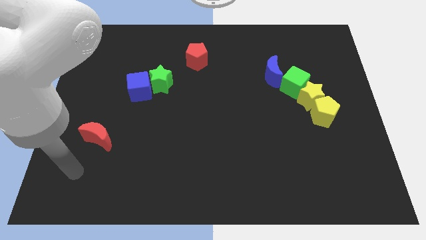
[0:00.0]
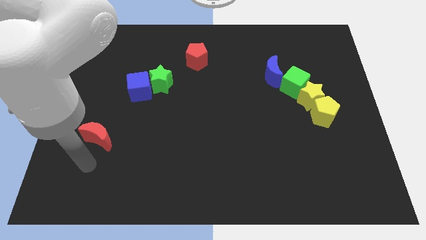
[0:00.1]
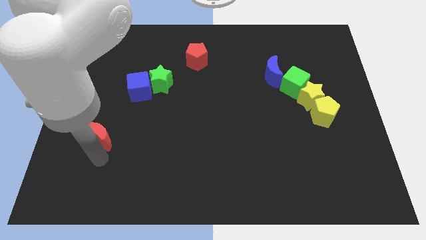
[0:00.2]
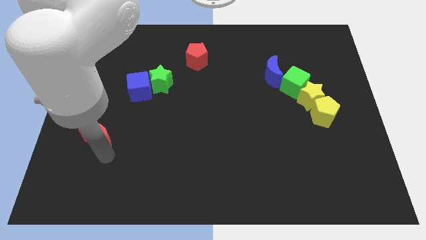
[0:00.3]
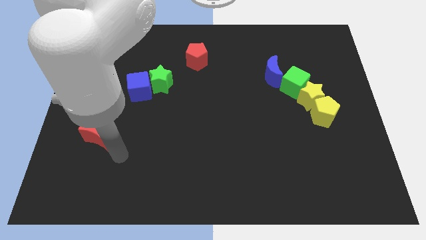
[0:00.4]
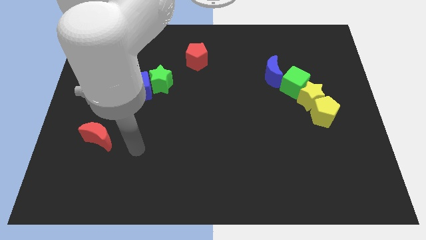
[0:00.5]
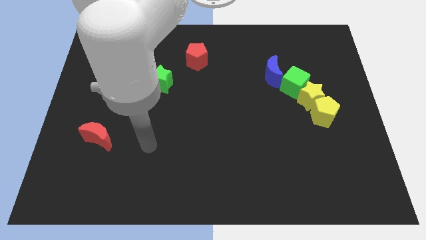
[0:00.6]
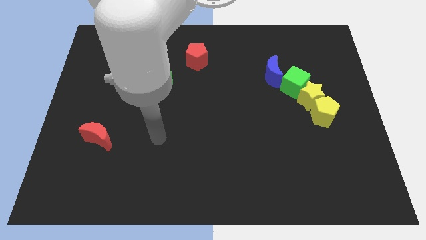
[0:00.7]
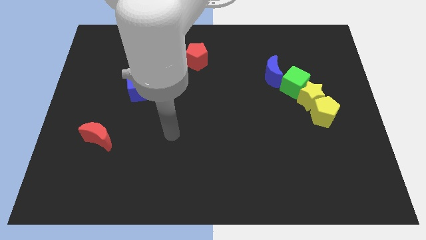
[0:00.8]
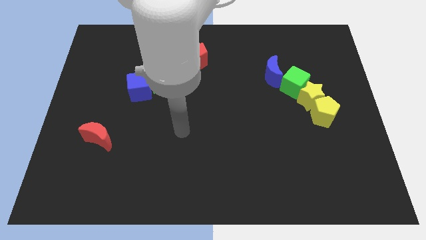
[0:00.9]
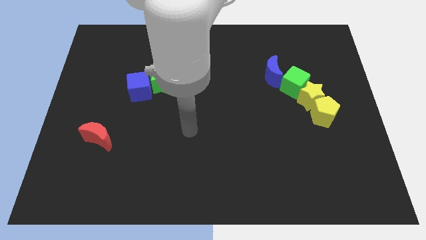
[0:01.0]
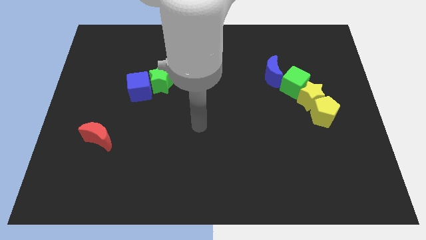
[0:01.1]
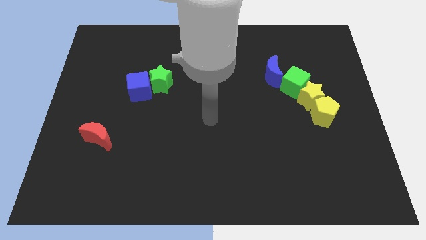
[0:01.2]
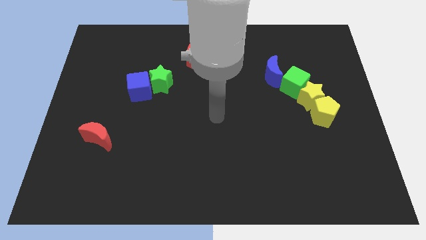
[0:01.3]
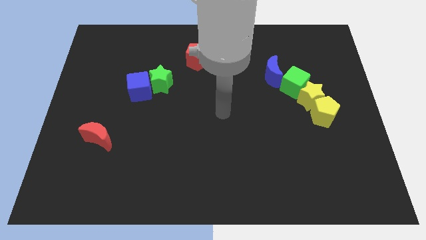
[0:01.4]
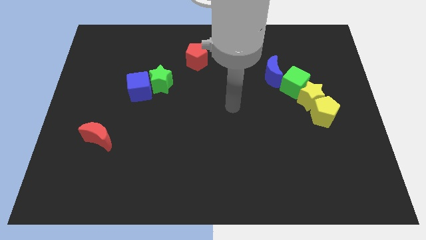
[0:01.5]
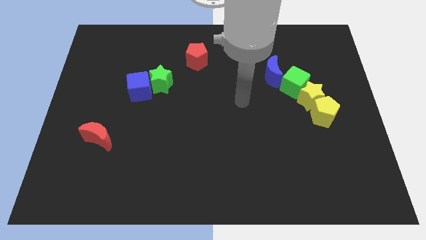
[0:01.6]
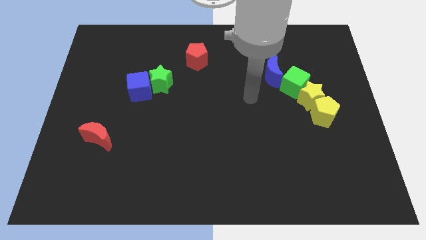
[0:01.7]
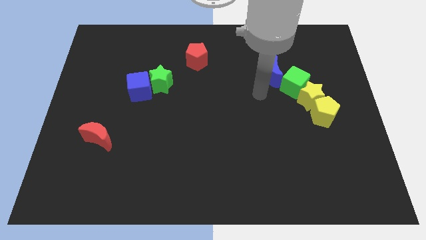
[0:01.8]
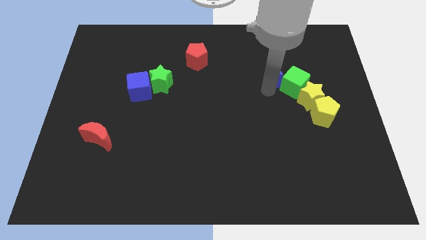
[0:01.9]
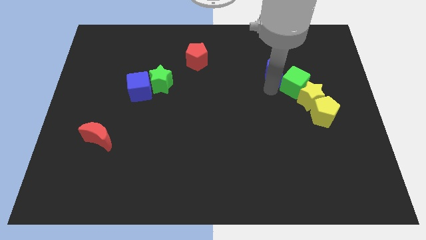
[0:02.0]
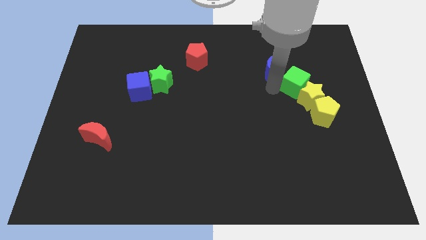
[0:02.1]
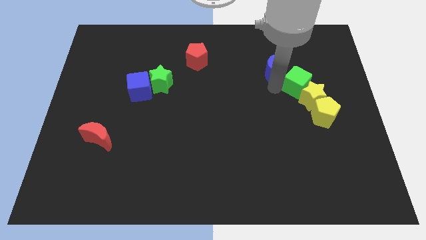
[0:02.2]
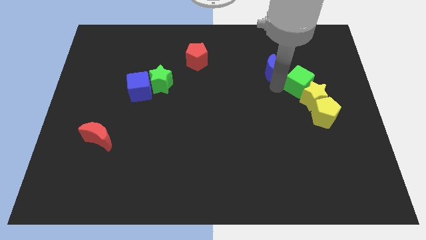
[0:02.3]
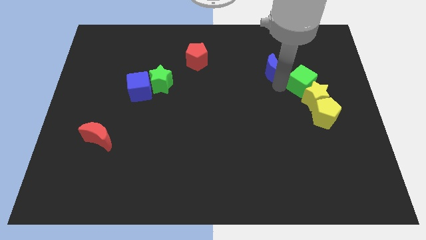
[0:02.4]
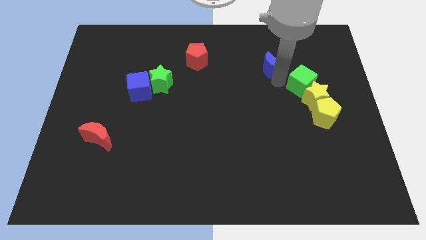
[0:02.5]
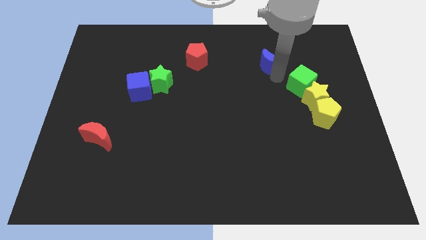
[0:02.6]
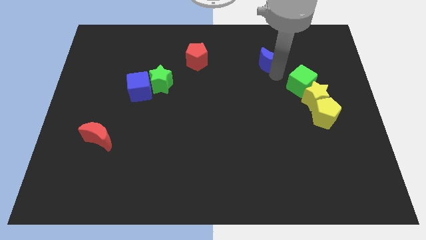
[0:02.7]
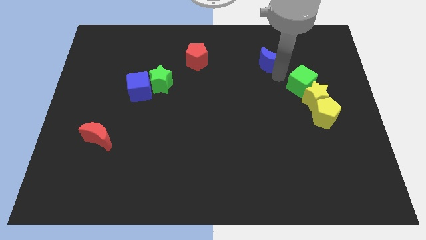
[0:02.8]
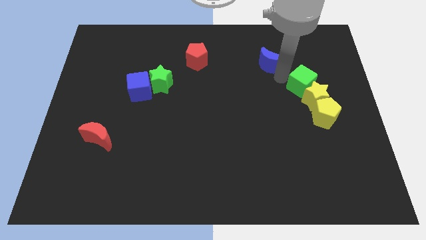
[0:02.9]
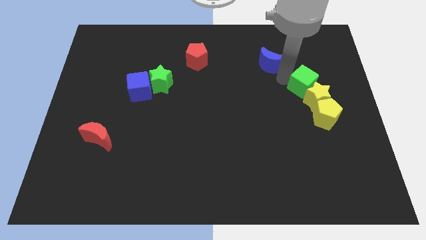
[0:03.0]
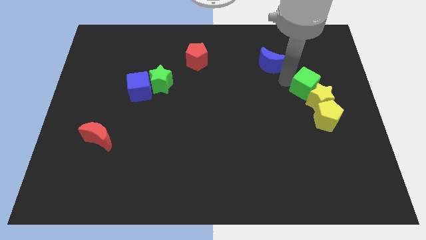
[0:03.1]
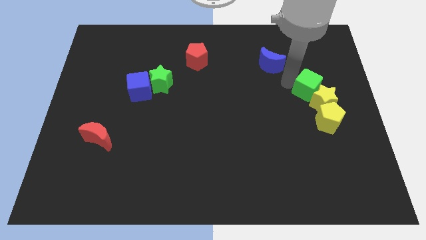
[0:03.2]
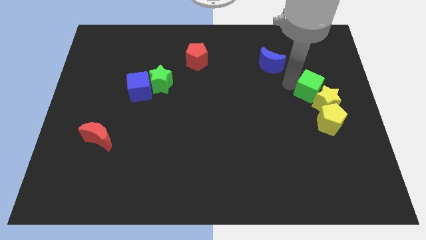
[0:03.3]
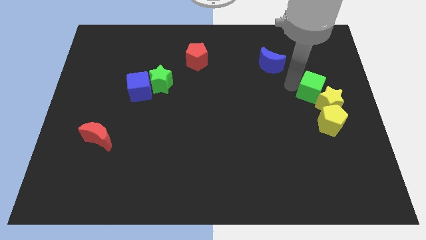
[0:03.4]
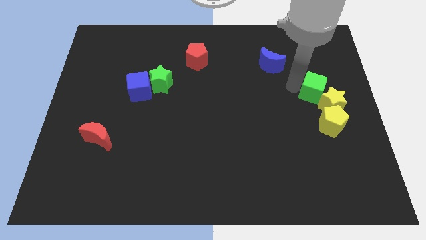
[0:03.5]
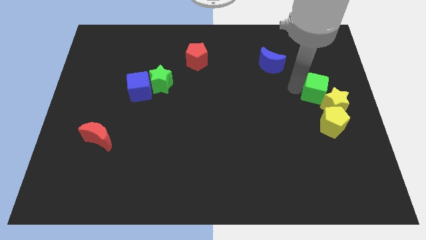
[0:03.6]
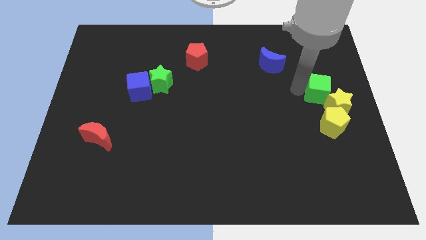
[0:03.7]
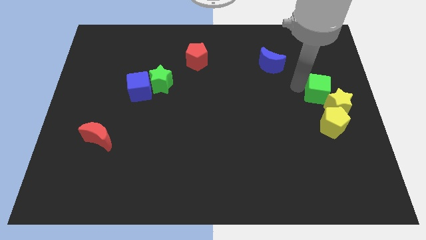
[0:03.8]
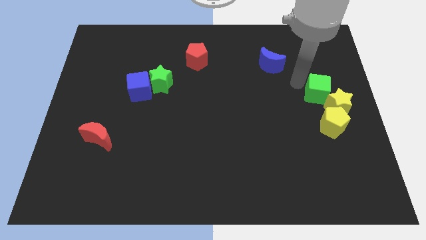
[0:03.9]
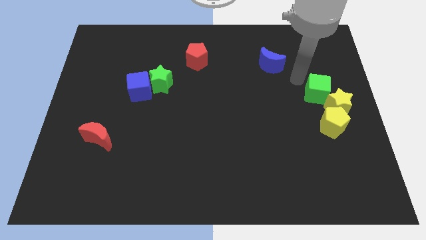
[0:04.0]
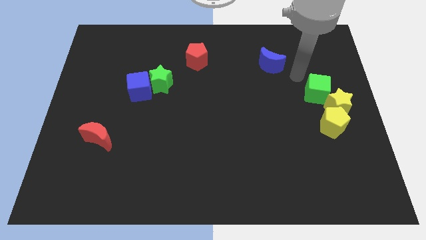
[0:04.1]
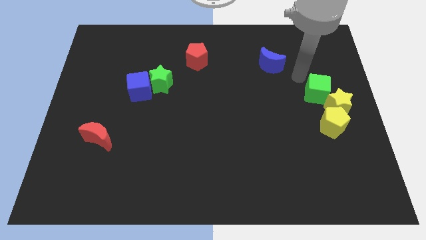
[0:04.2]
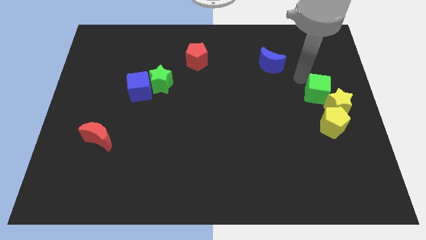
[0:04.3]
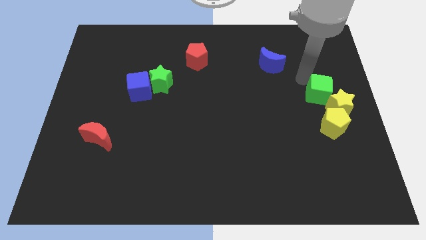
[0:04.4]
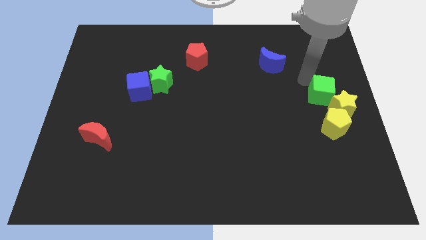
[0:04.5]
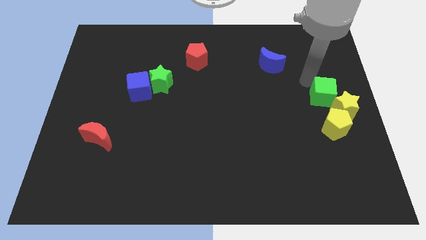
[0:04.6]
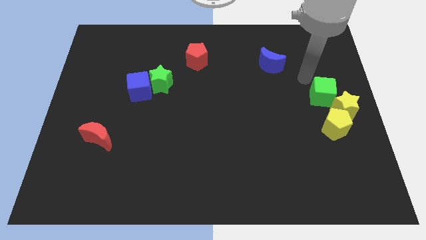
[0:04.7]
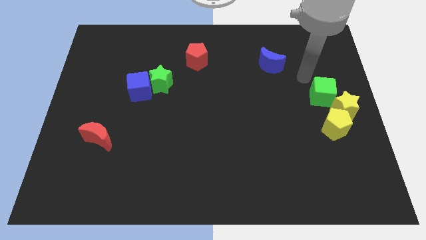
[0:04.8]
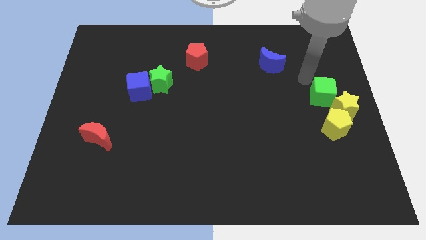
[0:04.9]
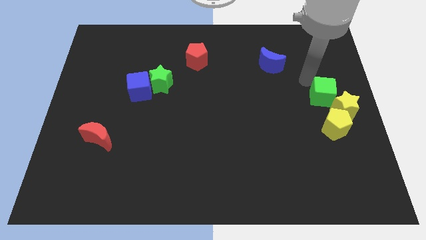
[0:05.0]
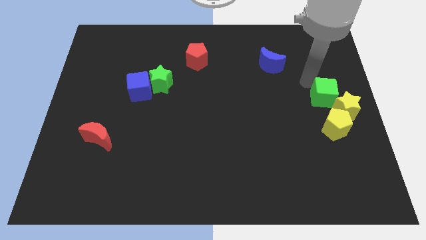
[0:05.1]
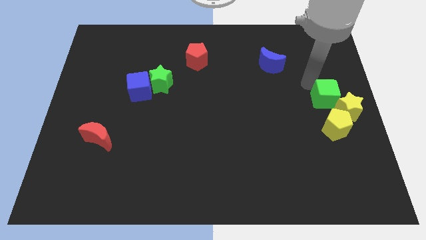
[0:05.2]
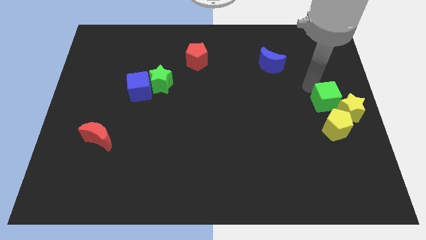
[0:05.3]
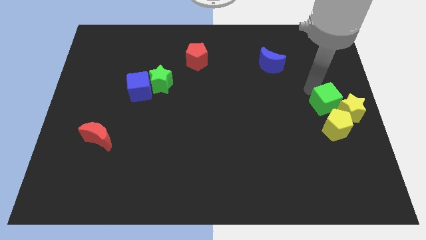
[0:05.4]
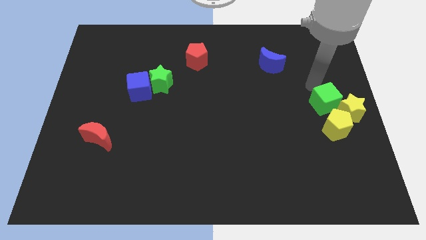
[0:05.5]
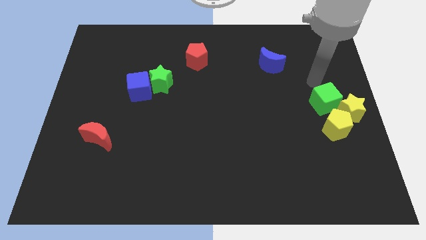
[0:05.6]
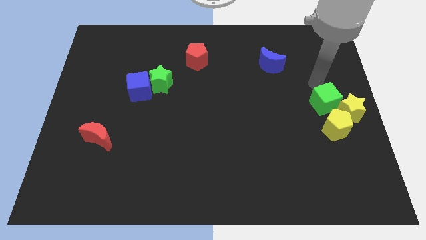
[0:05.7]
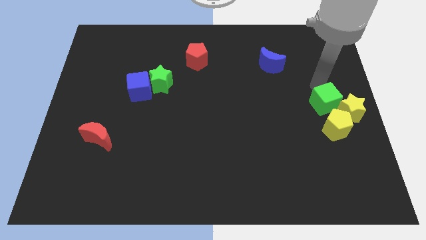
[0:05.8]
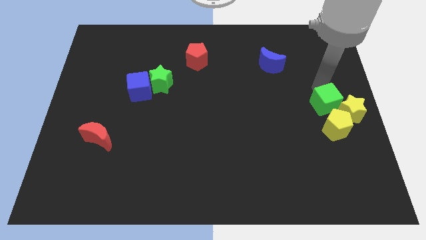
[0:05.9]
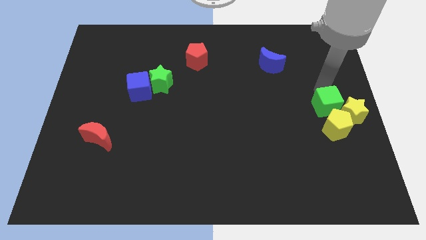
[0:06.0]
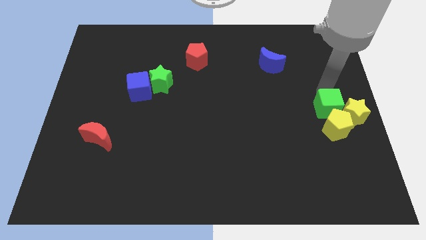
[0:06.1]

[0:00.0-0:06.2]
put the green cube towards the yellow pentagon

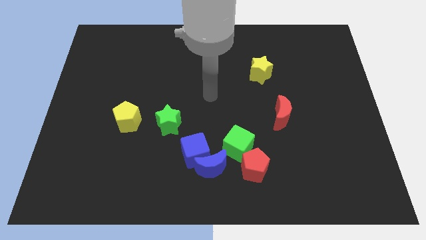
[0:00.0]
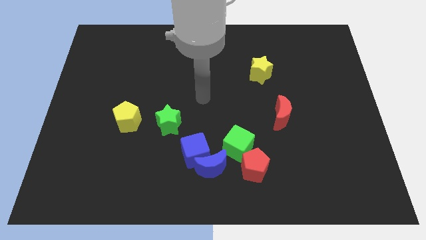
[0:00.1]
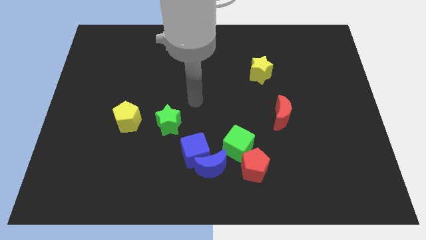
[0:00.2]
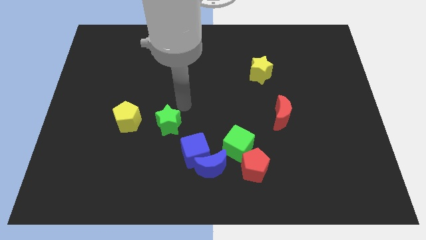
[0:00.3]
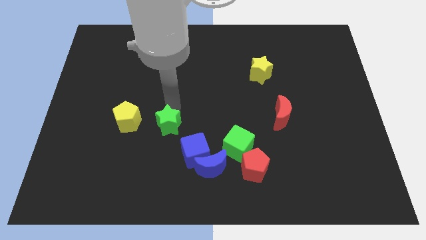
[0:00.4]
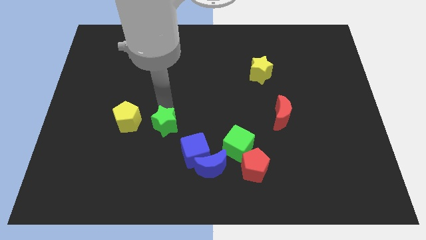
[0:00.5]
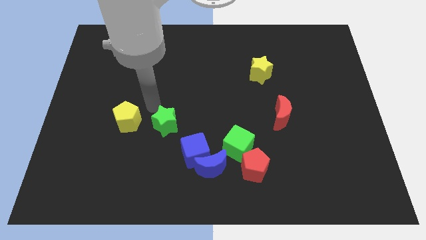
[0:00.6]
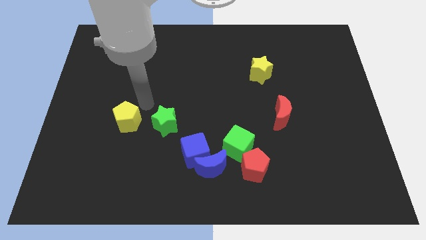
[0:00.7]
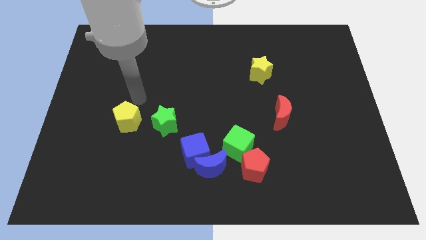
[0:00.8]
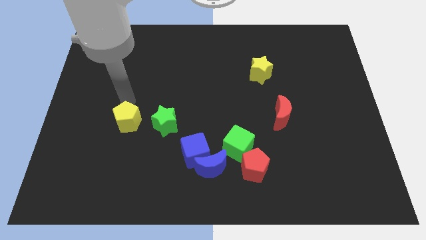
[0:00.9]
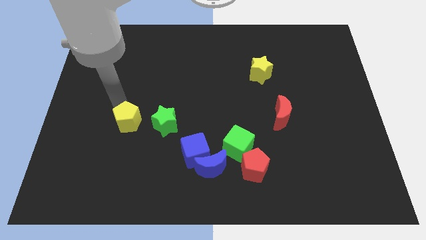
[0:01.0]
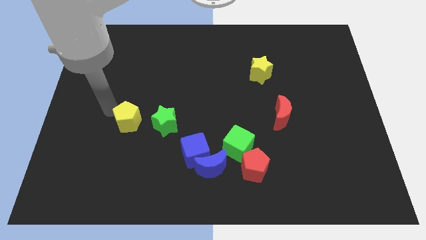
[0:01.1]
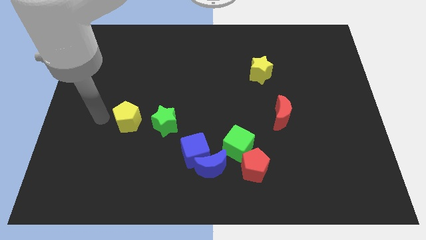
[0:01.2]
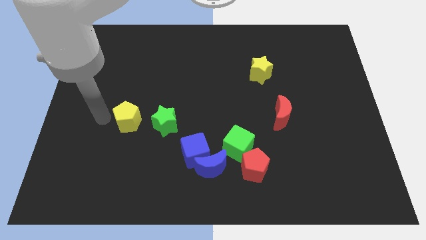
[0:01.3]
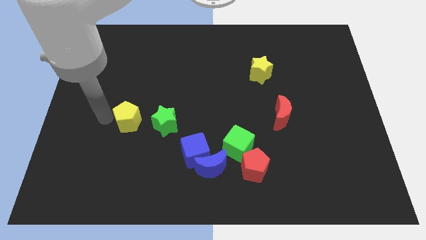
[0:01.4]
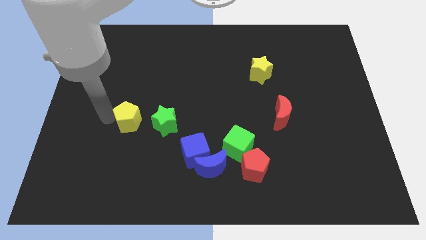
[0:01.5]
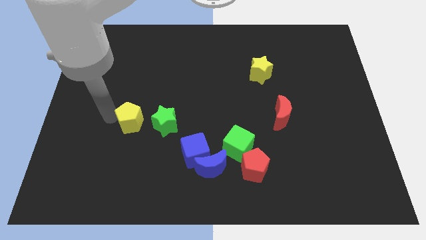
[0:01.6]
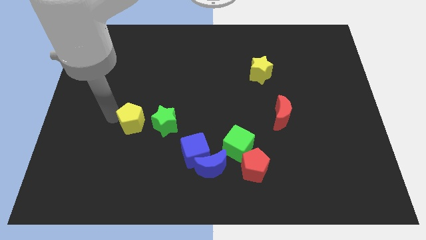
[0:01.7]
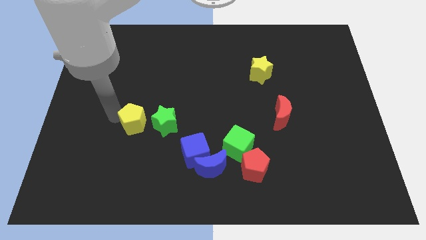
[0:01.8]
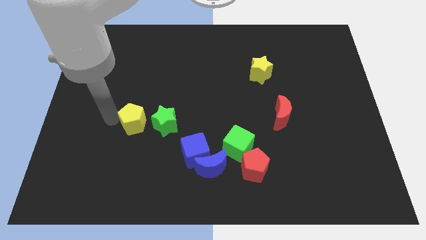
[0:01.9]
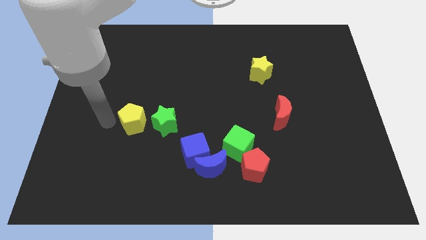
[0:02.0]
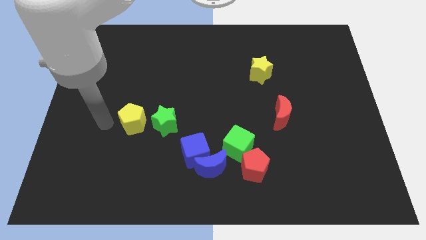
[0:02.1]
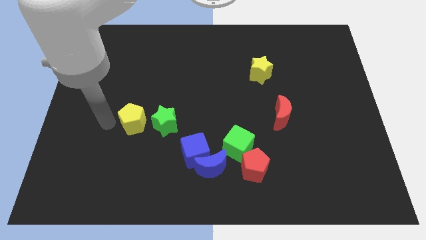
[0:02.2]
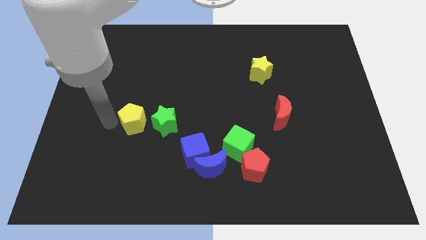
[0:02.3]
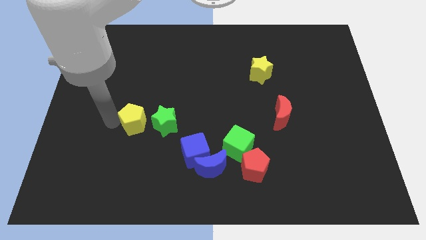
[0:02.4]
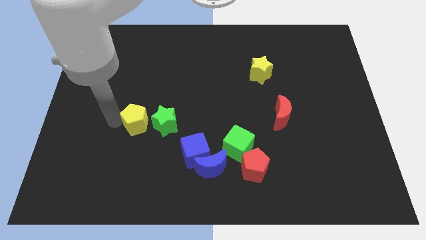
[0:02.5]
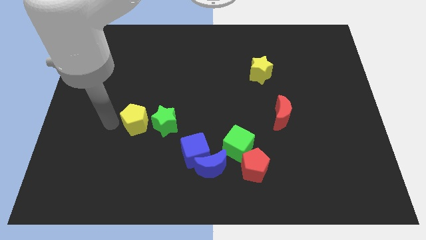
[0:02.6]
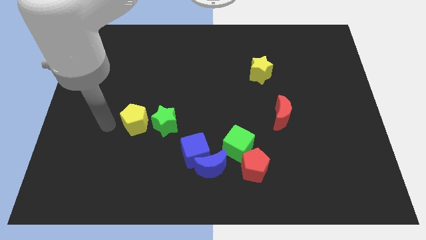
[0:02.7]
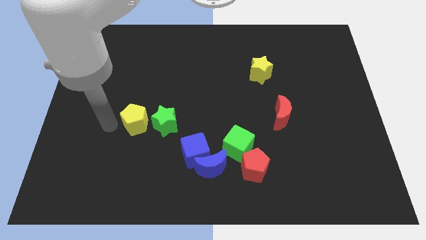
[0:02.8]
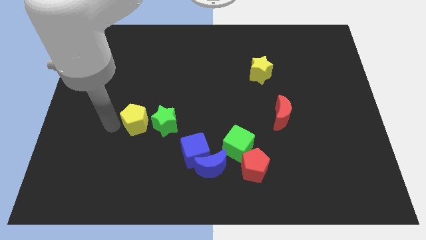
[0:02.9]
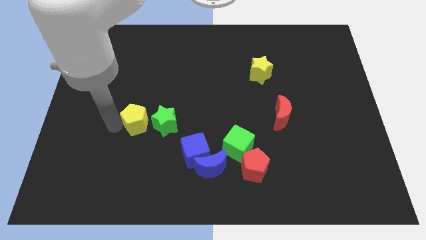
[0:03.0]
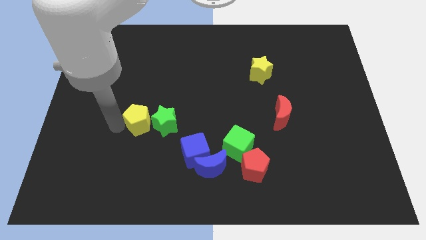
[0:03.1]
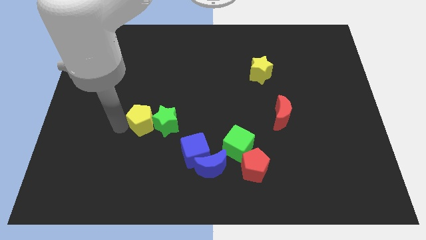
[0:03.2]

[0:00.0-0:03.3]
move the yellow pentagon towards the green star
